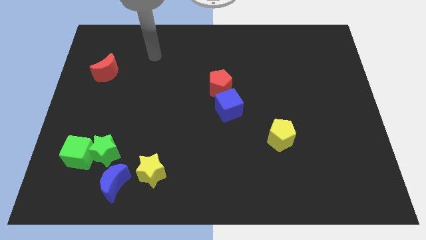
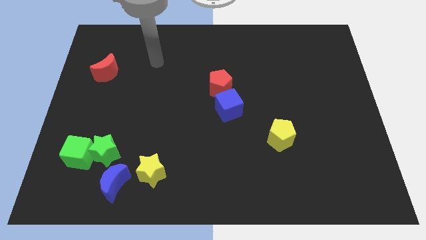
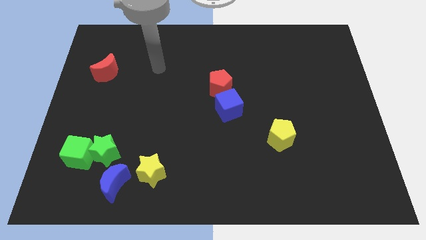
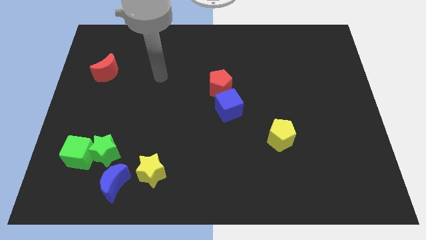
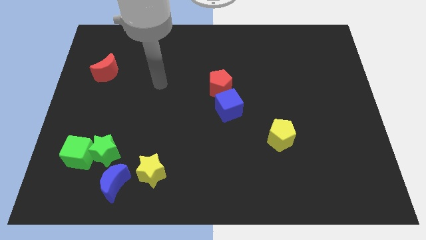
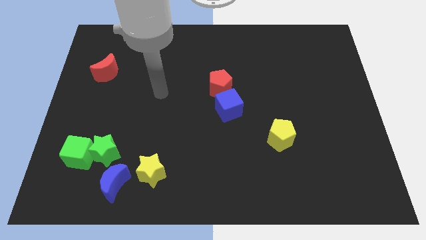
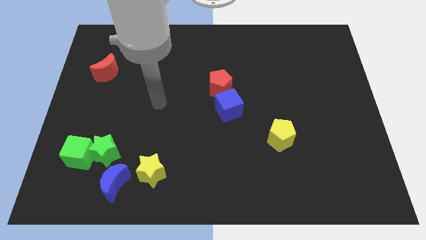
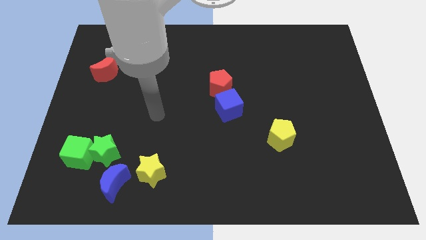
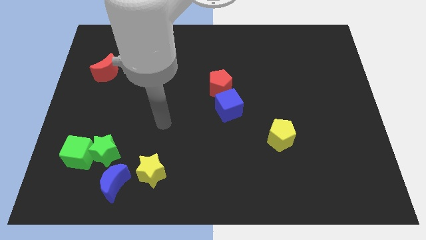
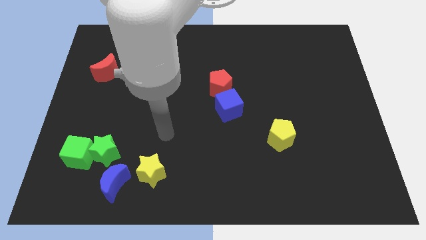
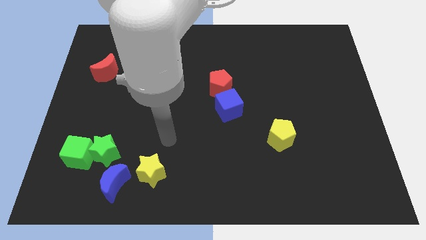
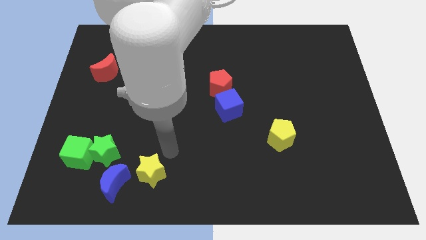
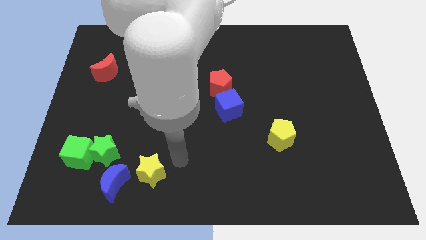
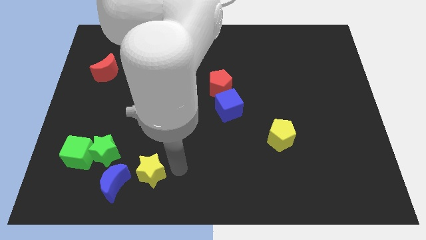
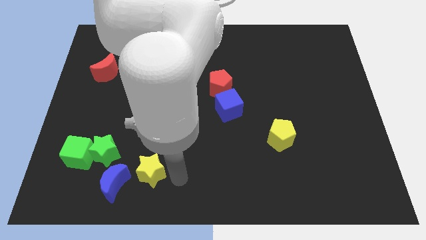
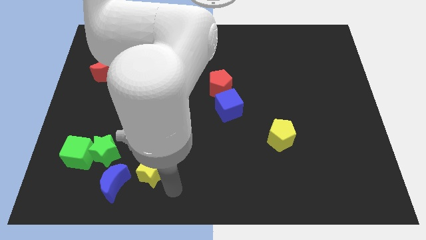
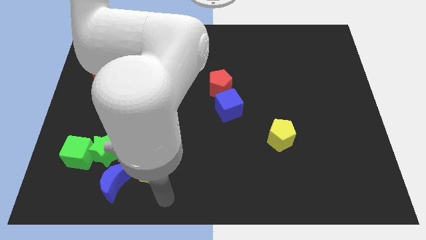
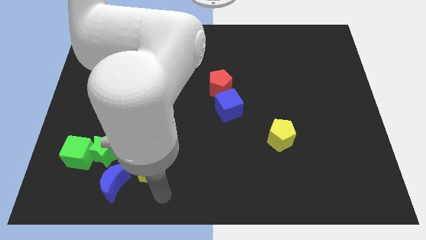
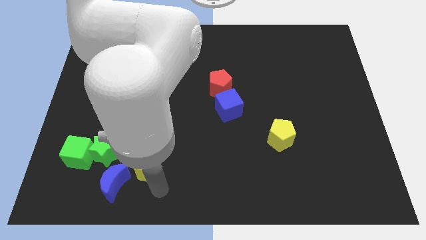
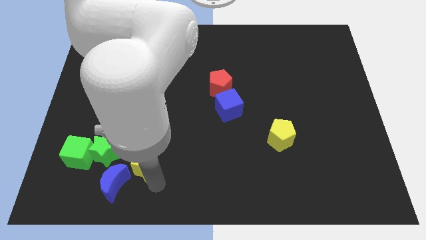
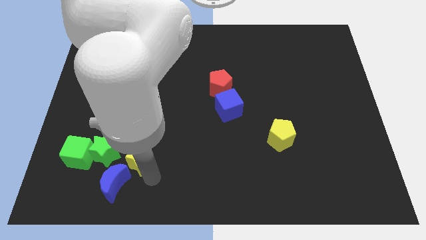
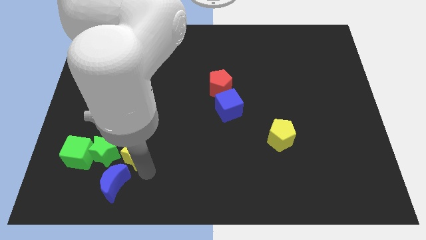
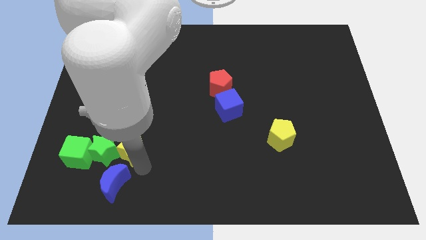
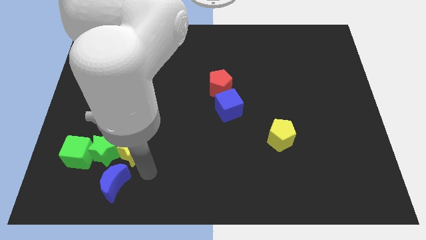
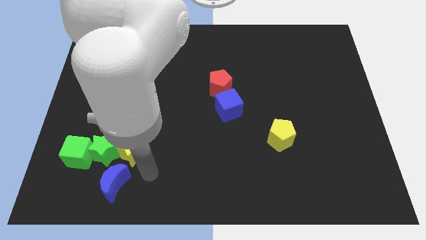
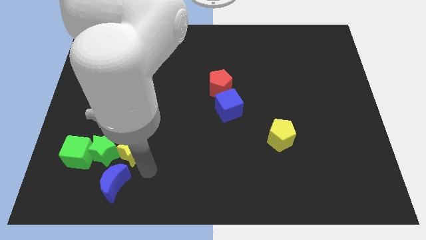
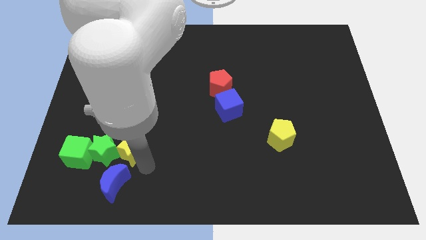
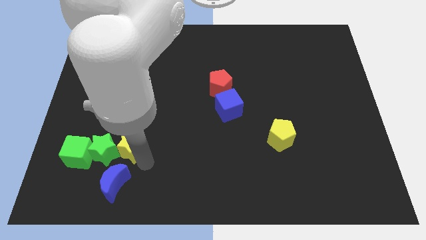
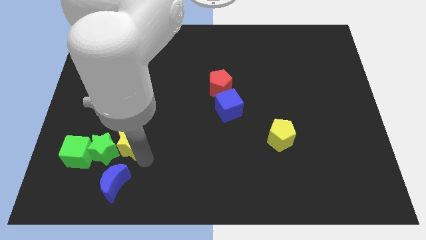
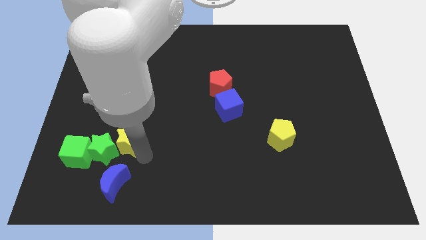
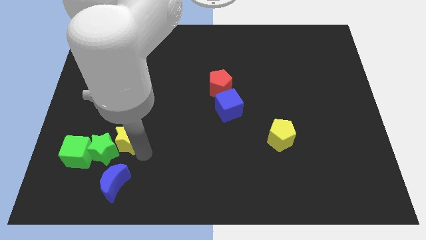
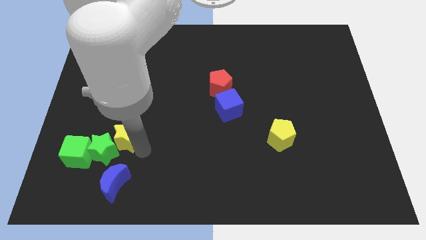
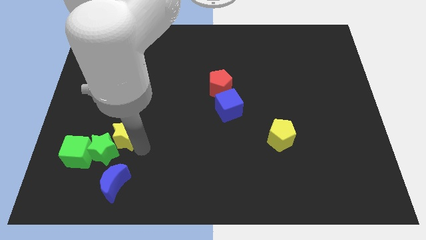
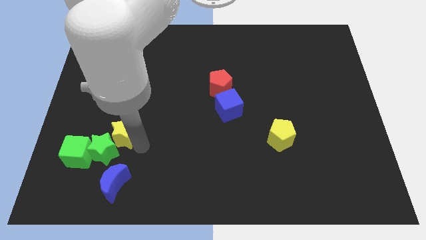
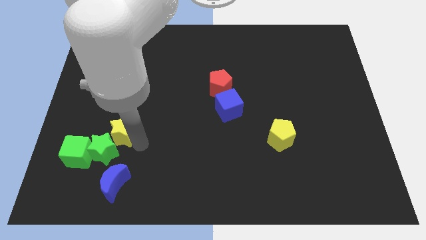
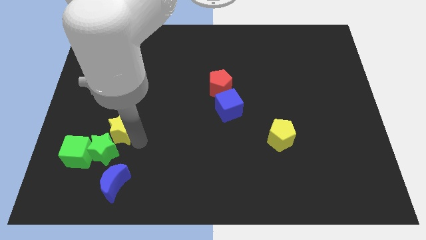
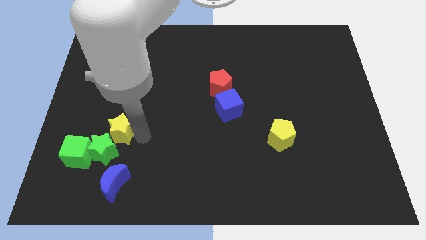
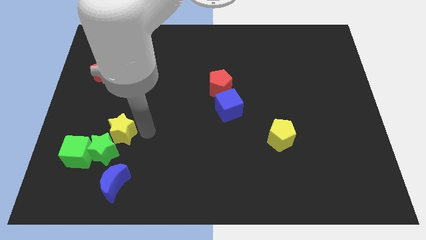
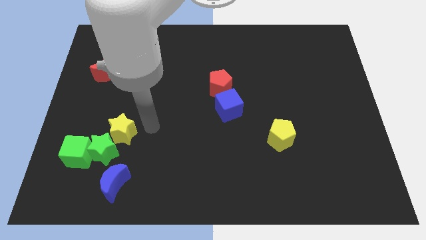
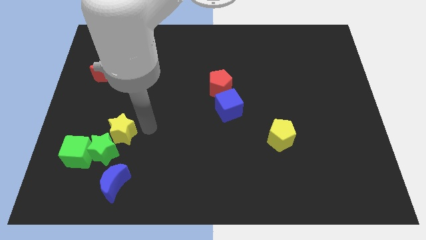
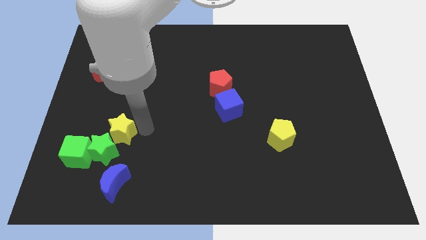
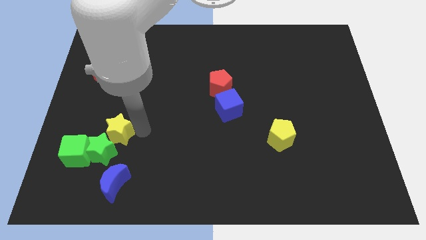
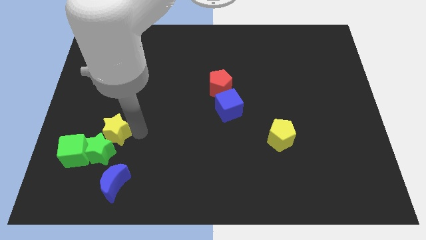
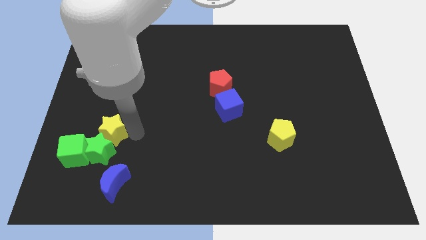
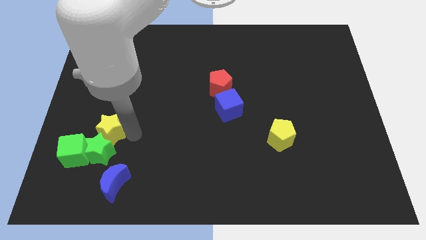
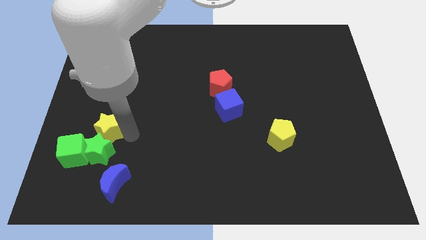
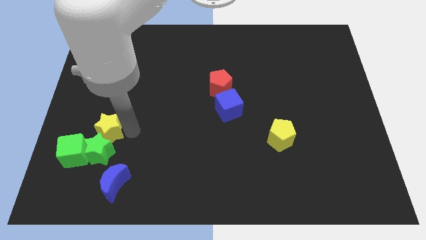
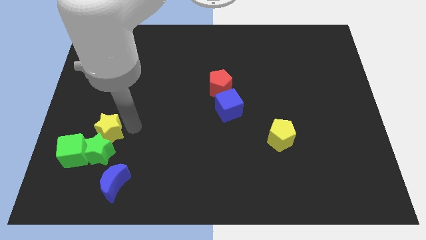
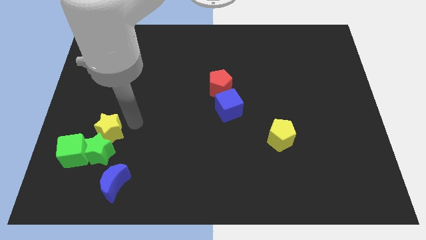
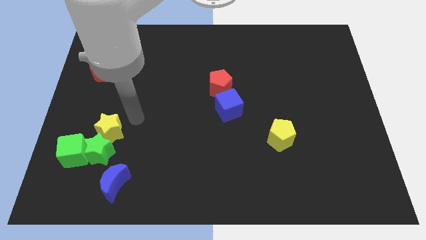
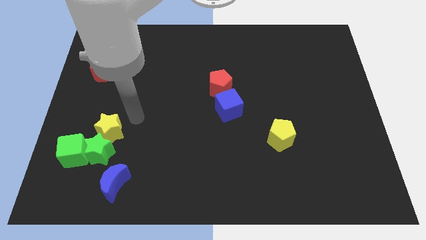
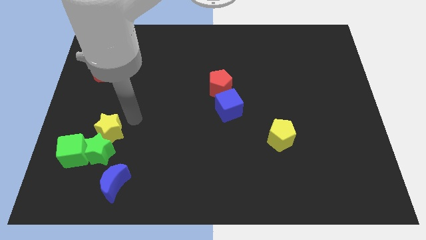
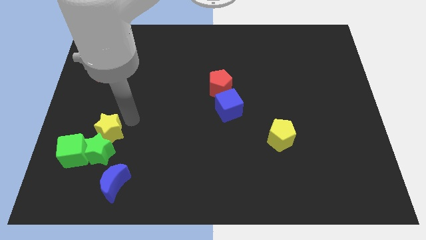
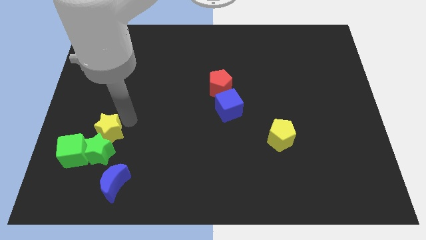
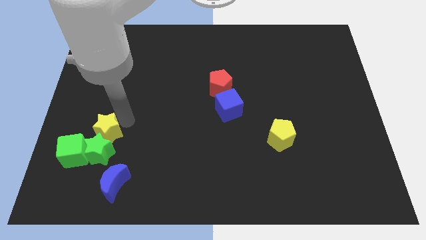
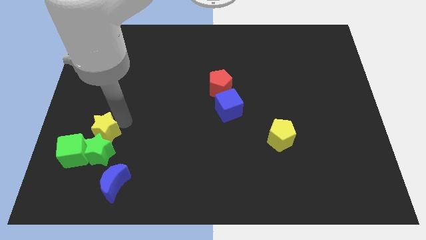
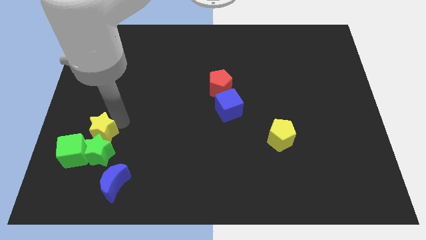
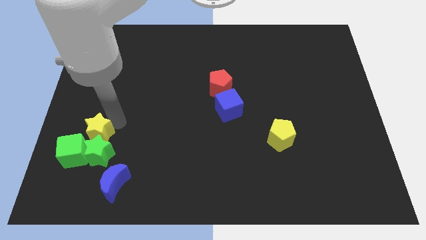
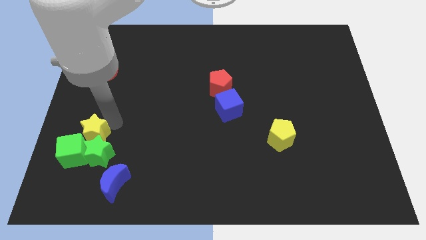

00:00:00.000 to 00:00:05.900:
put the yellow star next to the green cube
